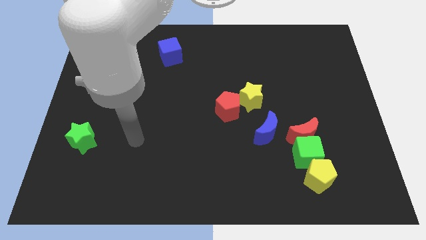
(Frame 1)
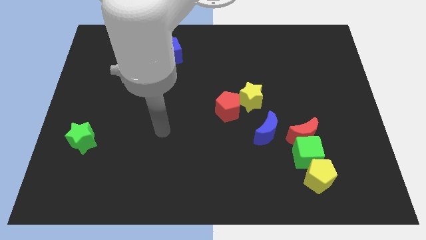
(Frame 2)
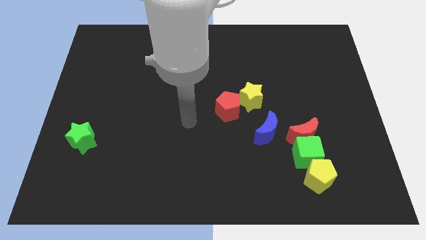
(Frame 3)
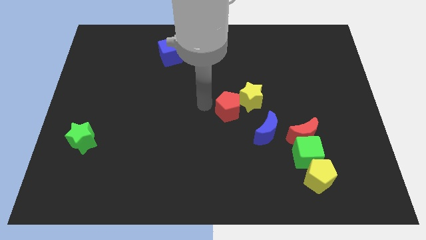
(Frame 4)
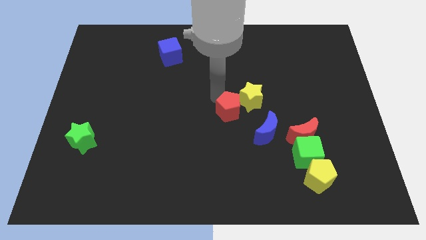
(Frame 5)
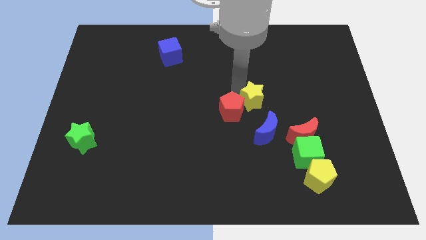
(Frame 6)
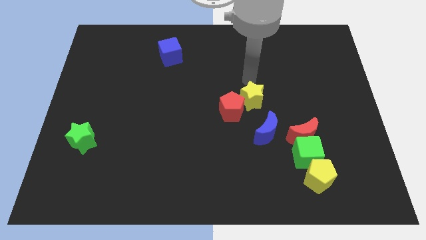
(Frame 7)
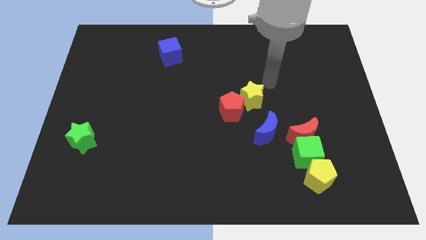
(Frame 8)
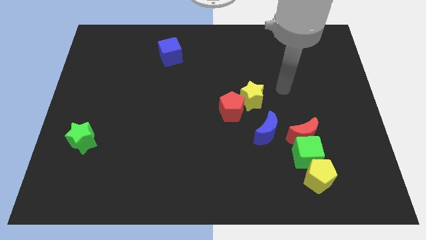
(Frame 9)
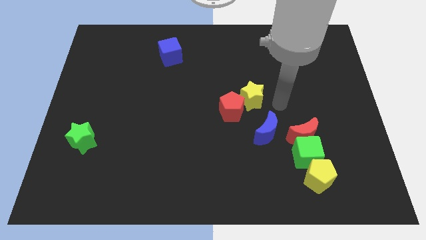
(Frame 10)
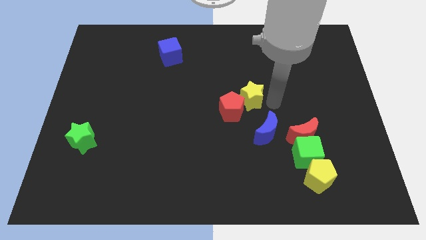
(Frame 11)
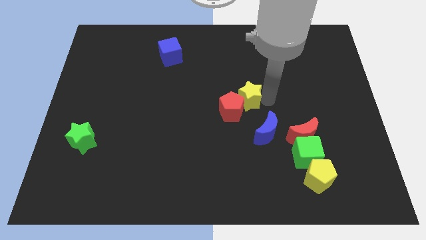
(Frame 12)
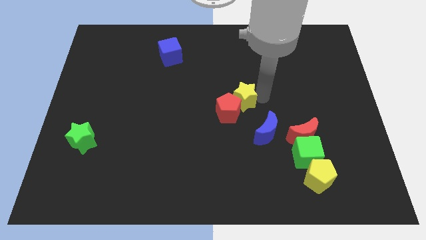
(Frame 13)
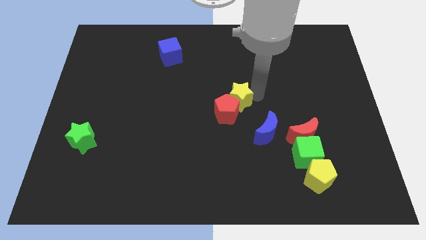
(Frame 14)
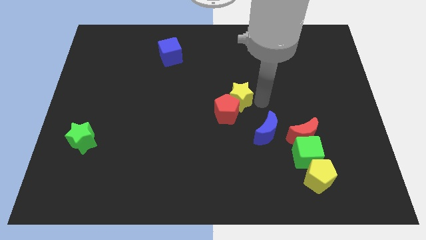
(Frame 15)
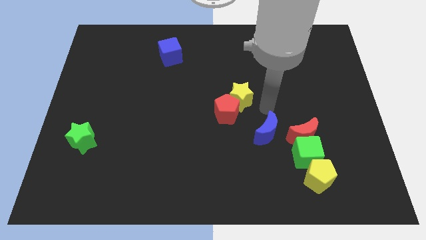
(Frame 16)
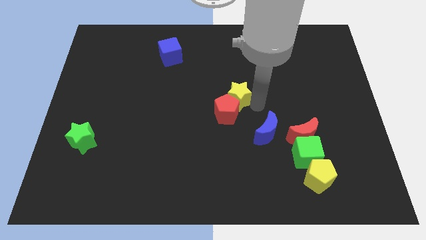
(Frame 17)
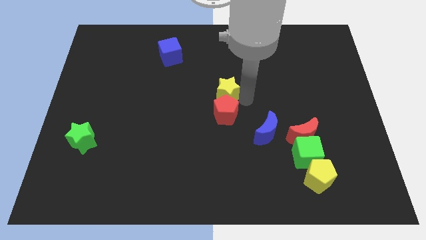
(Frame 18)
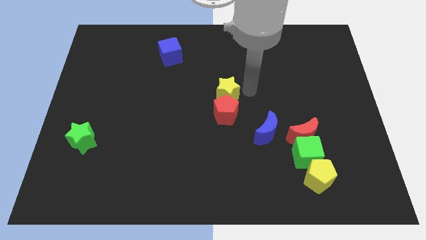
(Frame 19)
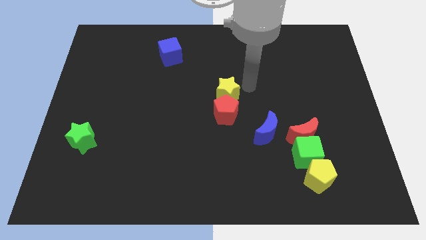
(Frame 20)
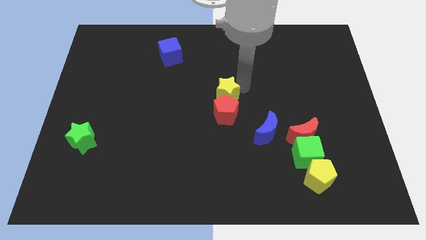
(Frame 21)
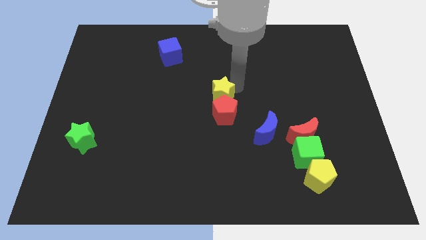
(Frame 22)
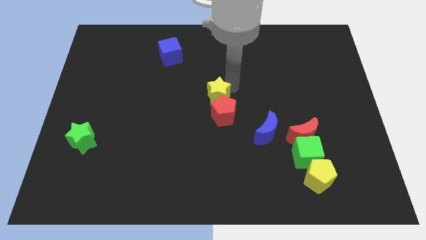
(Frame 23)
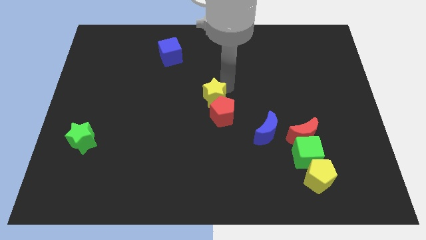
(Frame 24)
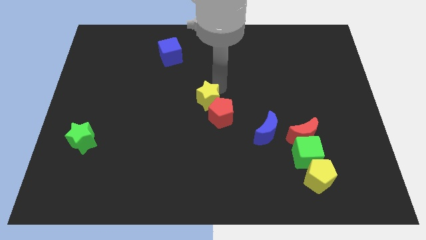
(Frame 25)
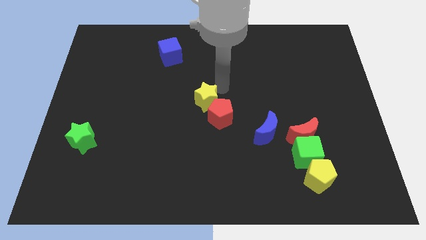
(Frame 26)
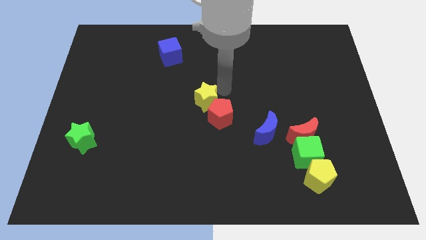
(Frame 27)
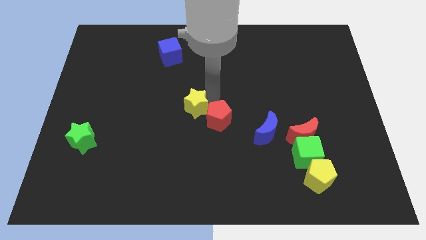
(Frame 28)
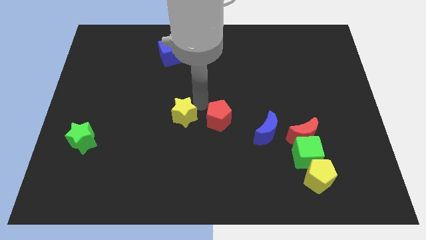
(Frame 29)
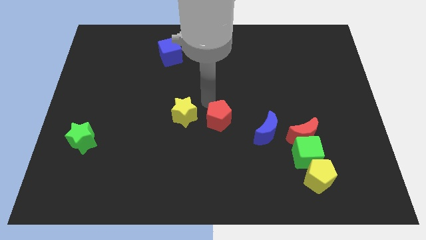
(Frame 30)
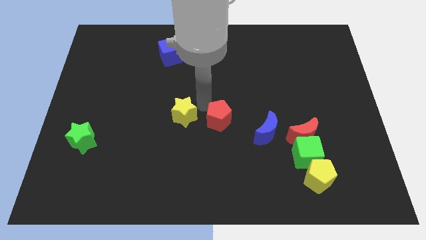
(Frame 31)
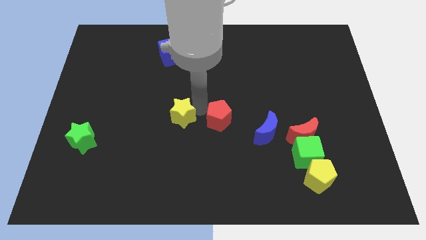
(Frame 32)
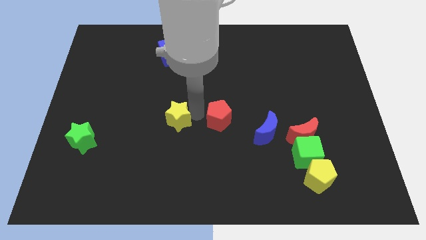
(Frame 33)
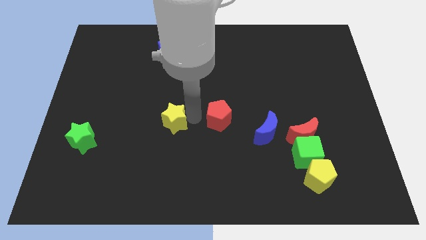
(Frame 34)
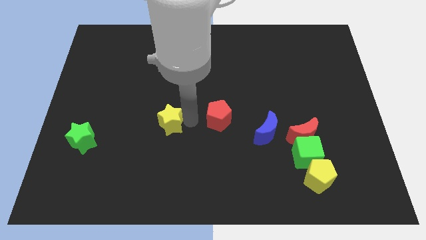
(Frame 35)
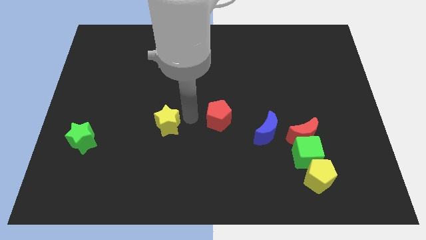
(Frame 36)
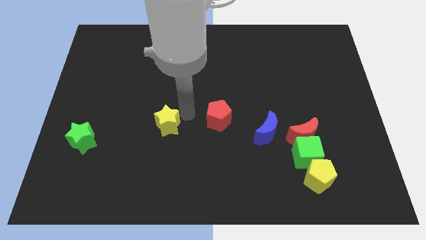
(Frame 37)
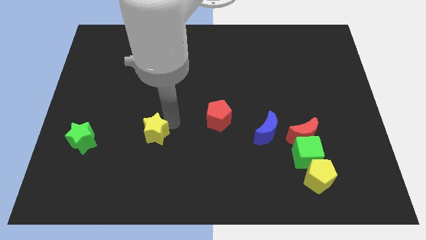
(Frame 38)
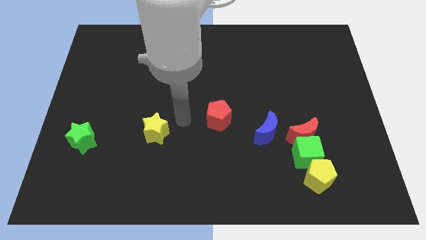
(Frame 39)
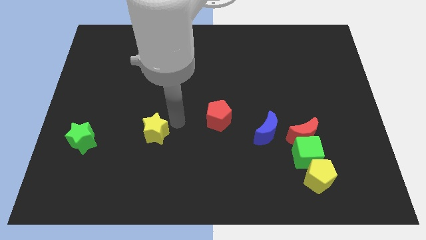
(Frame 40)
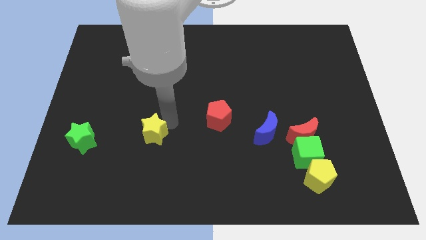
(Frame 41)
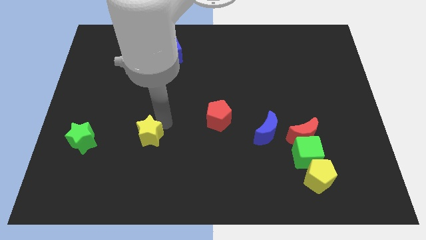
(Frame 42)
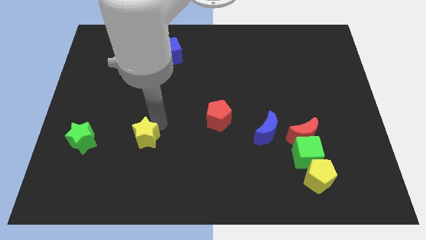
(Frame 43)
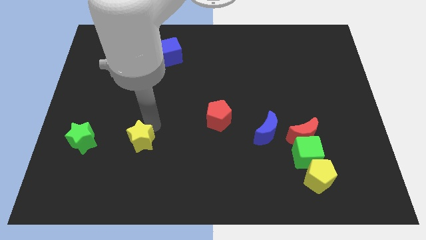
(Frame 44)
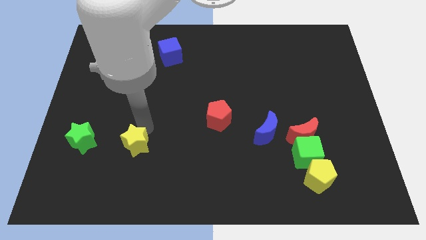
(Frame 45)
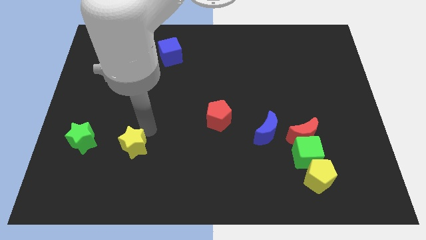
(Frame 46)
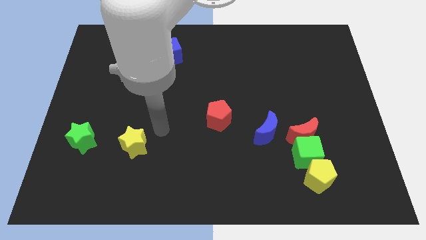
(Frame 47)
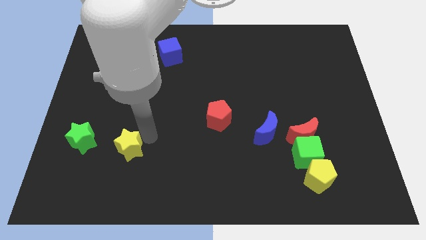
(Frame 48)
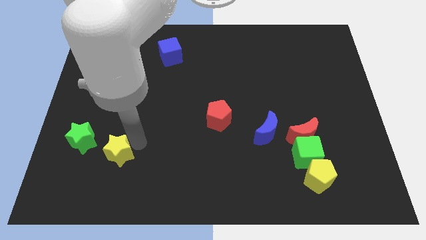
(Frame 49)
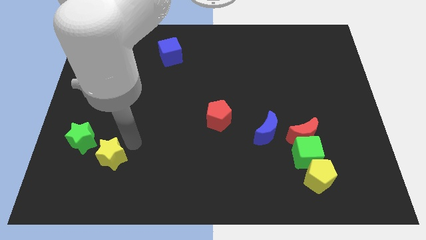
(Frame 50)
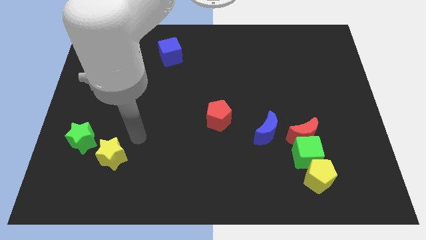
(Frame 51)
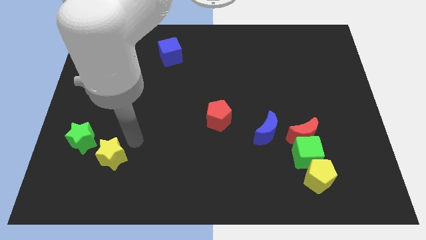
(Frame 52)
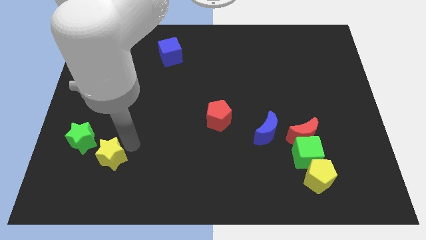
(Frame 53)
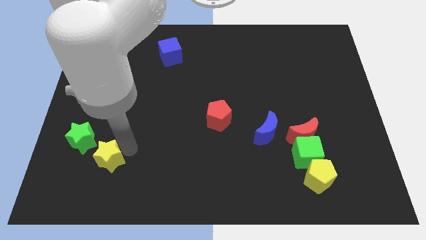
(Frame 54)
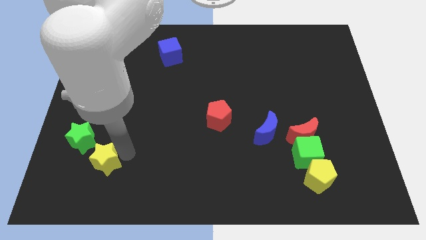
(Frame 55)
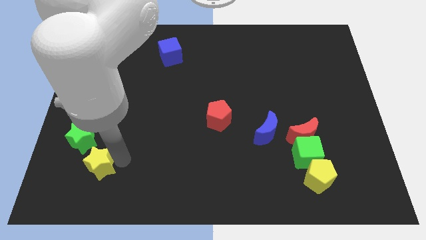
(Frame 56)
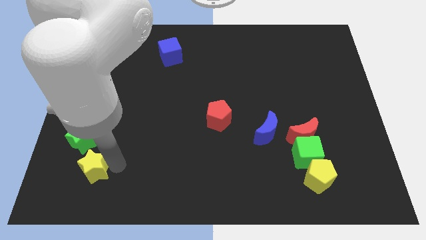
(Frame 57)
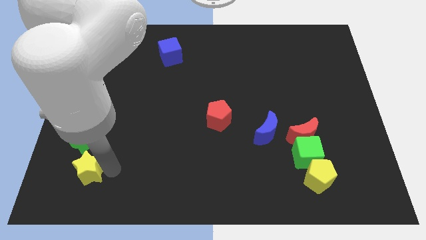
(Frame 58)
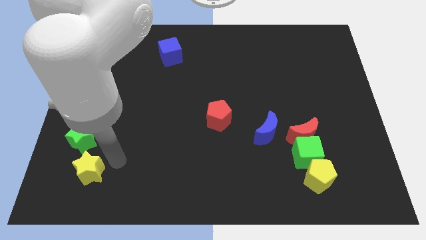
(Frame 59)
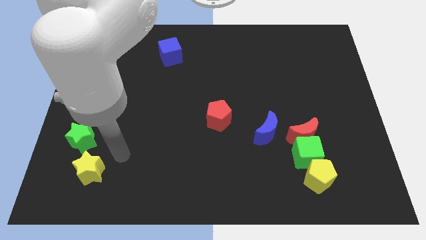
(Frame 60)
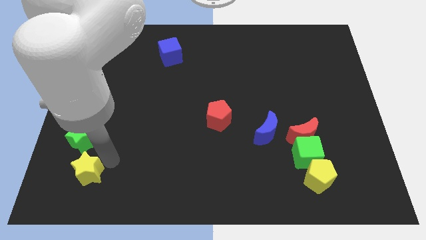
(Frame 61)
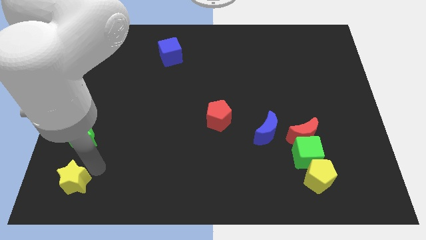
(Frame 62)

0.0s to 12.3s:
put the yellow star to the lower left corner
